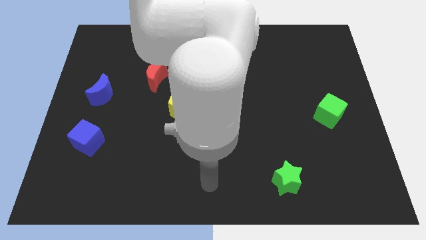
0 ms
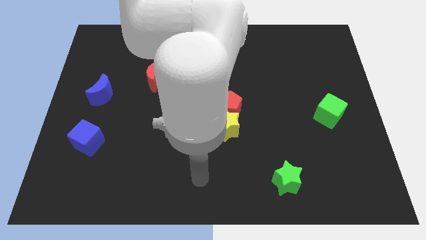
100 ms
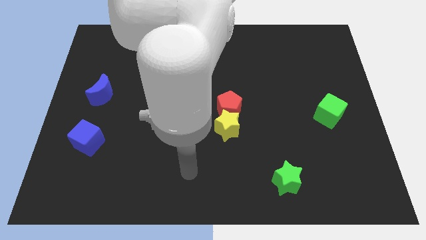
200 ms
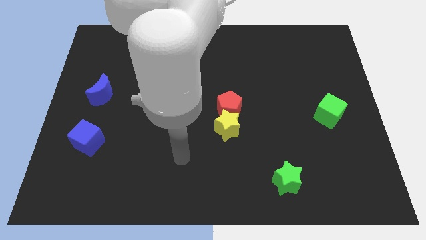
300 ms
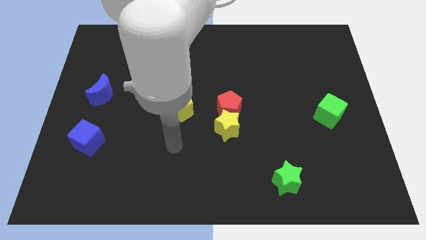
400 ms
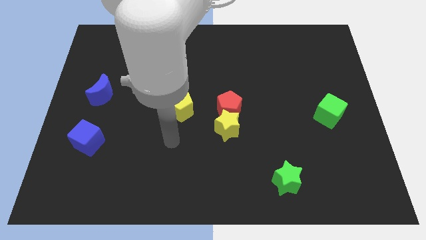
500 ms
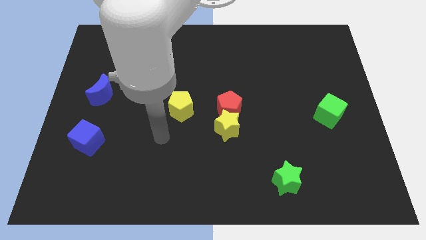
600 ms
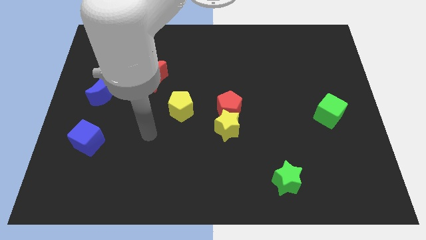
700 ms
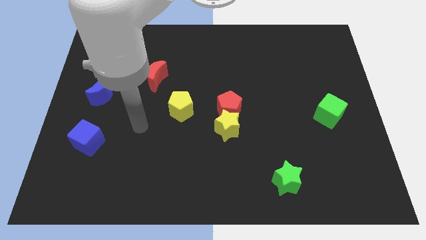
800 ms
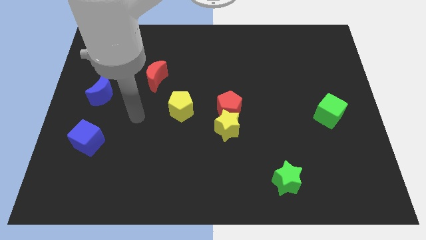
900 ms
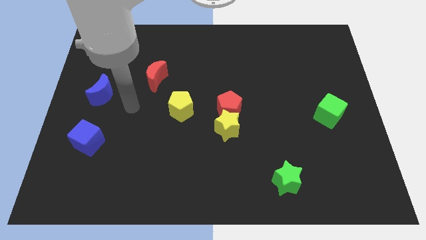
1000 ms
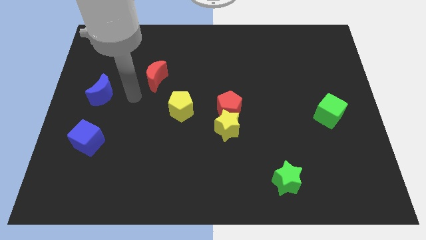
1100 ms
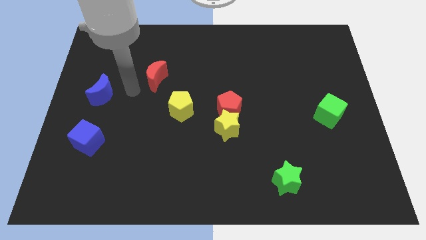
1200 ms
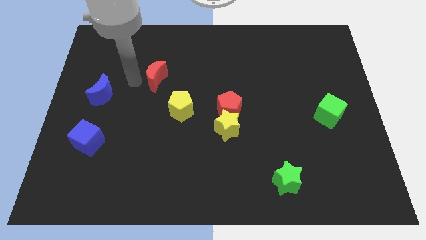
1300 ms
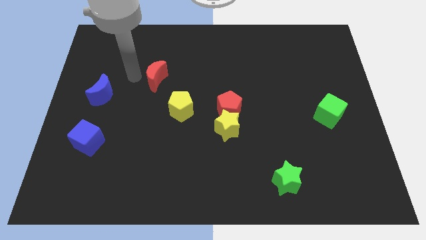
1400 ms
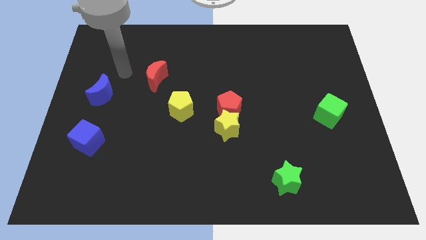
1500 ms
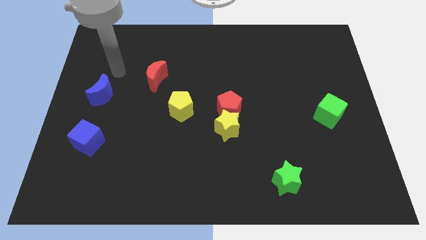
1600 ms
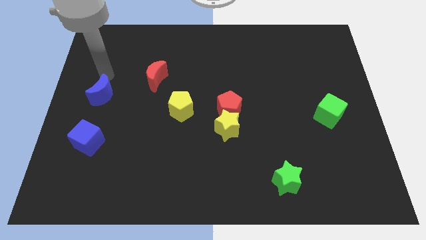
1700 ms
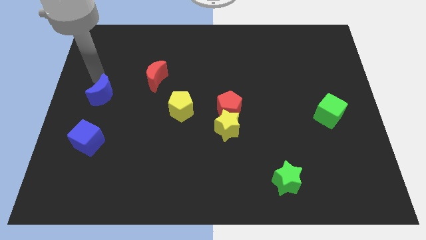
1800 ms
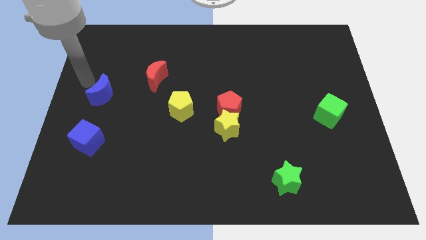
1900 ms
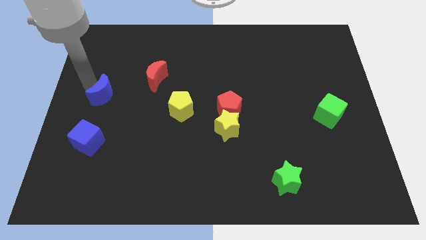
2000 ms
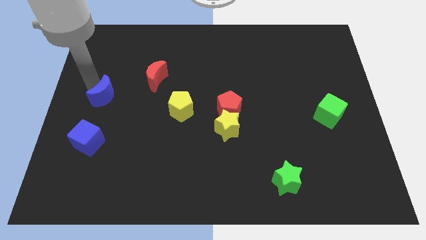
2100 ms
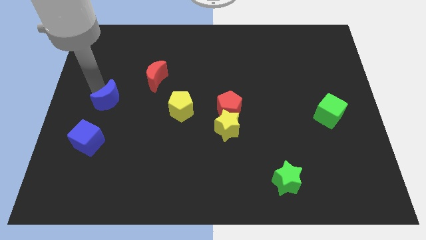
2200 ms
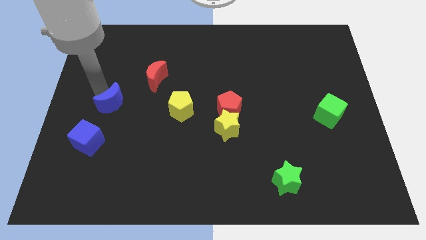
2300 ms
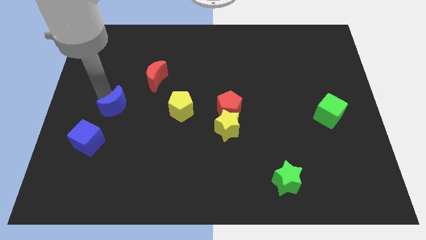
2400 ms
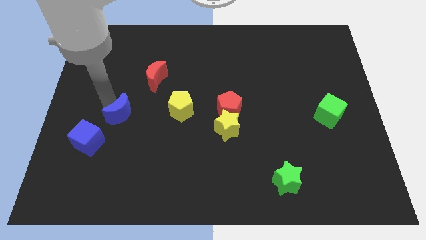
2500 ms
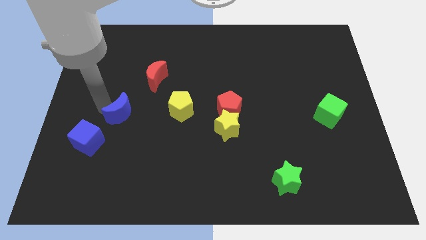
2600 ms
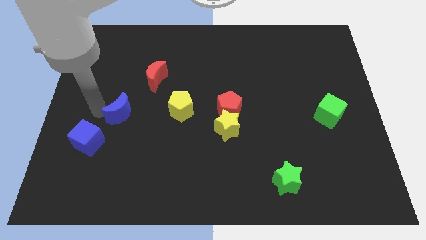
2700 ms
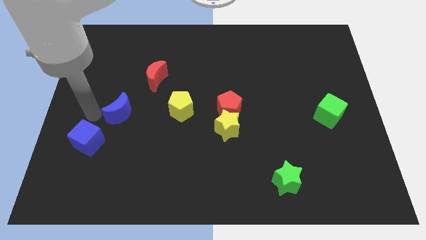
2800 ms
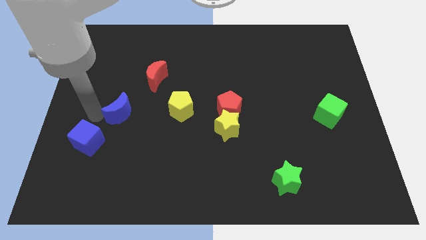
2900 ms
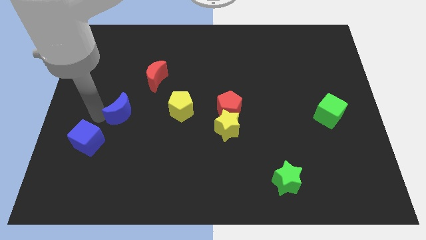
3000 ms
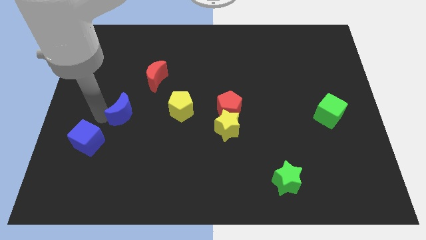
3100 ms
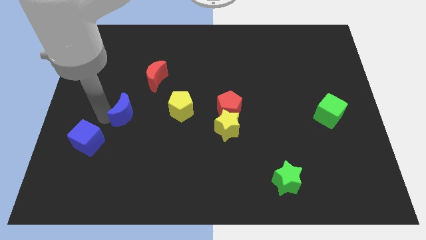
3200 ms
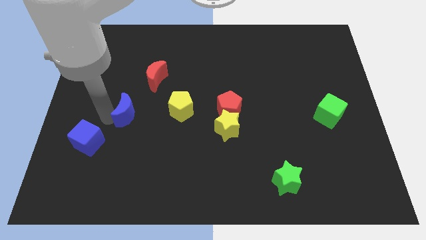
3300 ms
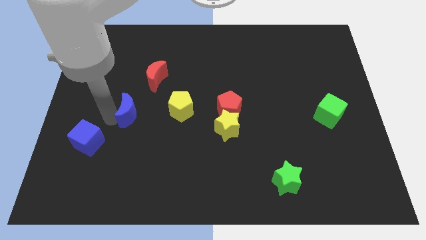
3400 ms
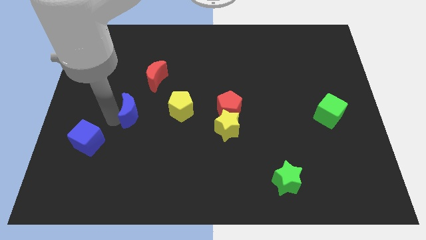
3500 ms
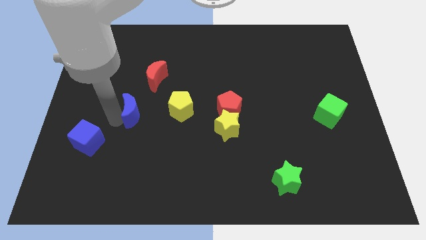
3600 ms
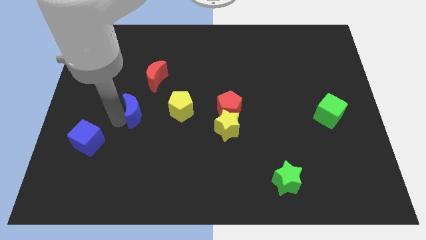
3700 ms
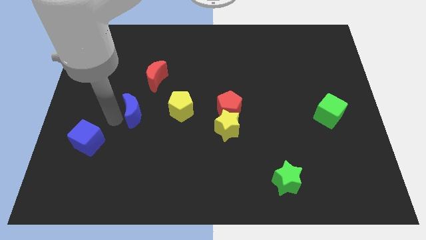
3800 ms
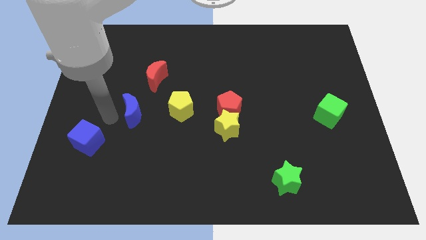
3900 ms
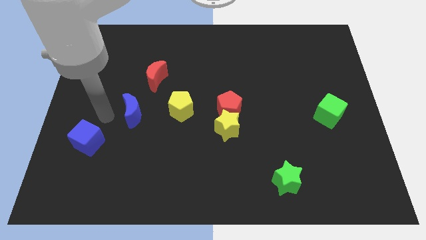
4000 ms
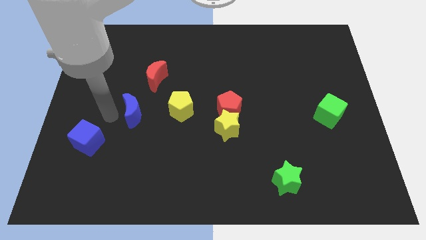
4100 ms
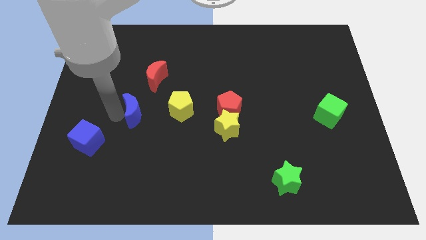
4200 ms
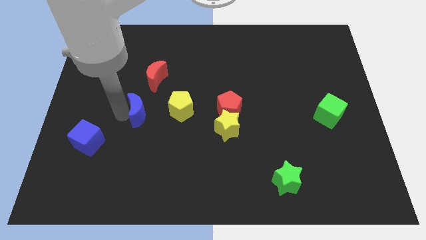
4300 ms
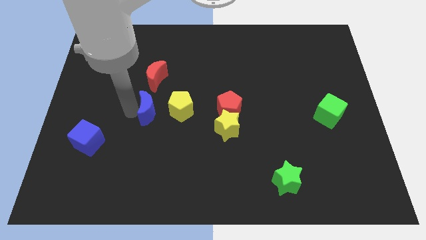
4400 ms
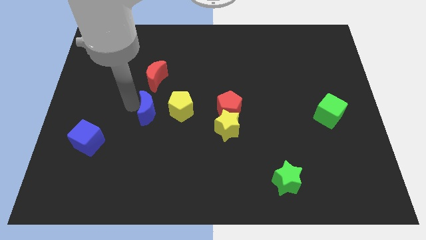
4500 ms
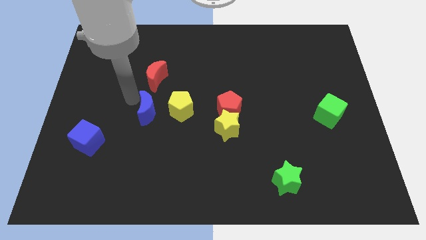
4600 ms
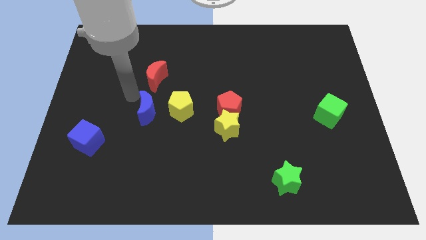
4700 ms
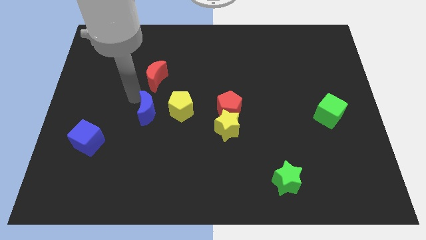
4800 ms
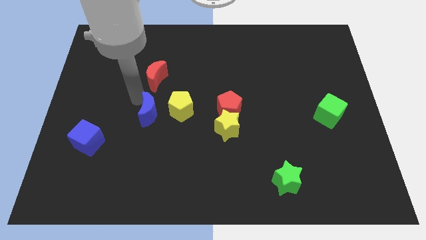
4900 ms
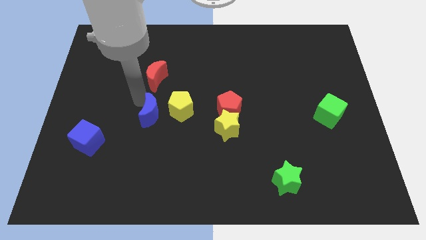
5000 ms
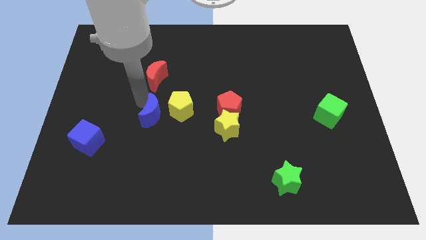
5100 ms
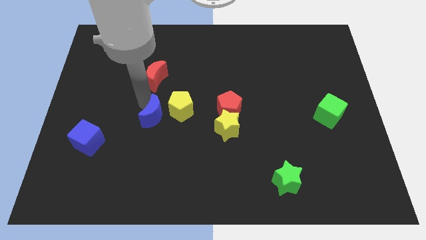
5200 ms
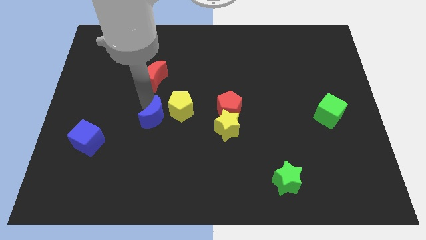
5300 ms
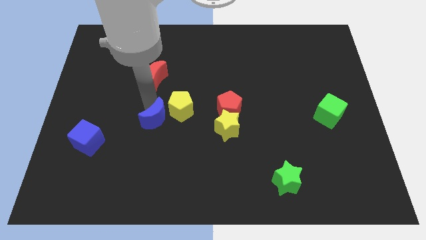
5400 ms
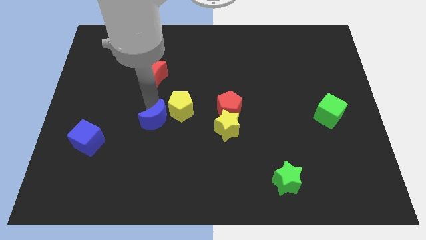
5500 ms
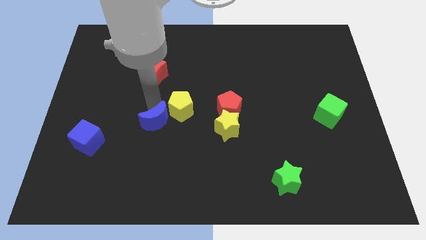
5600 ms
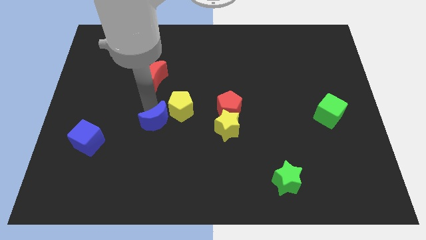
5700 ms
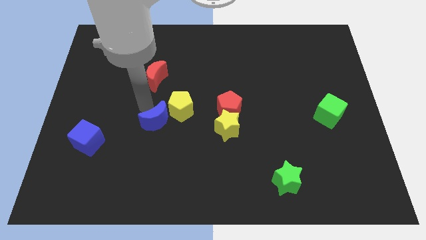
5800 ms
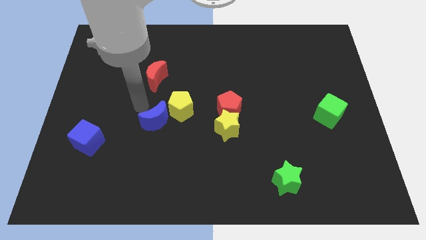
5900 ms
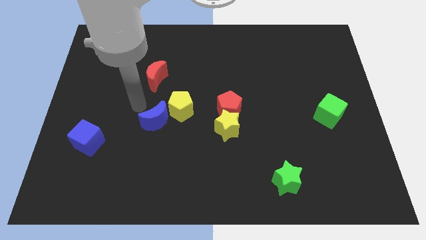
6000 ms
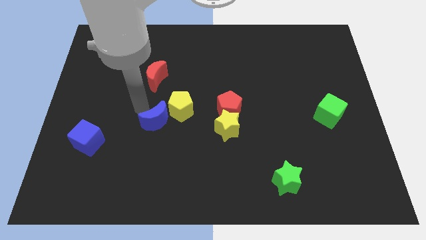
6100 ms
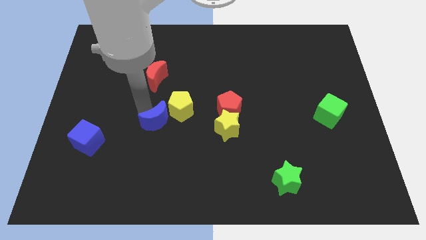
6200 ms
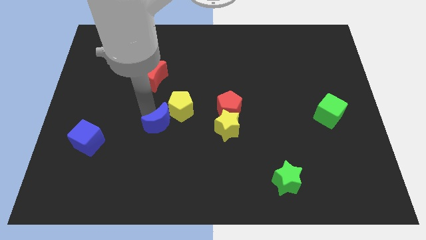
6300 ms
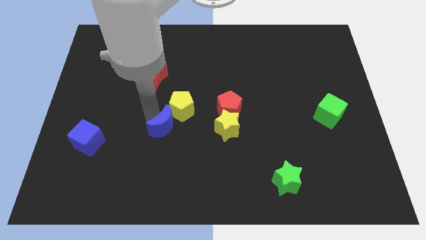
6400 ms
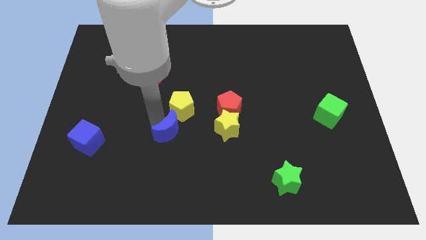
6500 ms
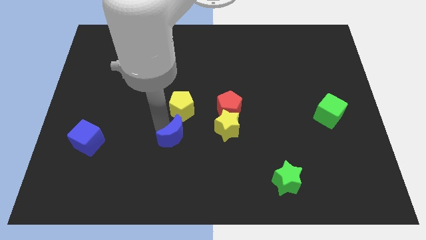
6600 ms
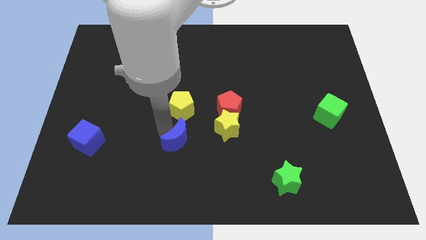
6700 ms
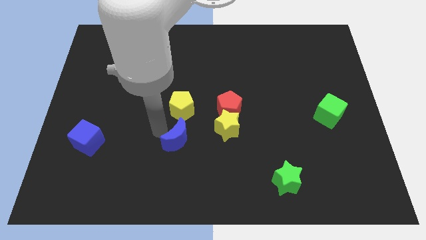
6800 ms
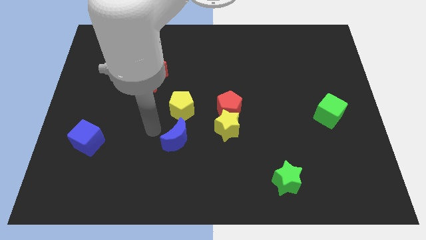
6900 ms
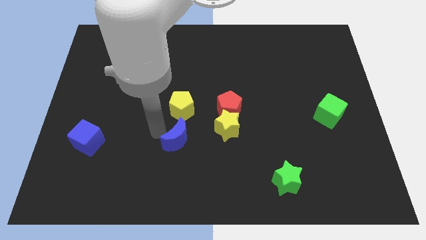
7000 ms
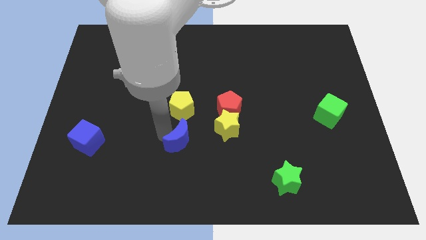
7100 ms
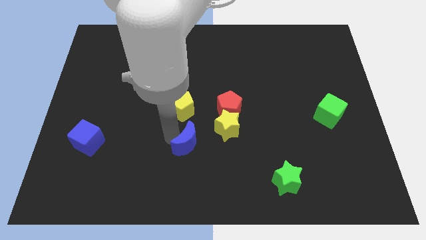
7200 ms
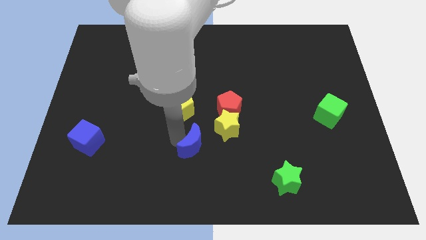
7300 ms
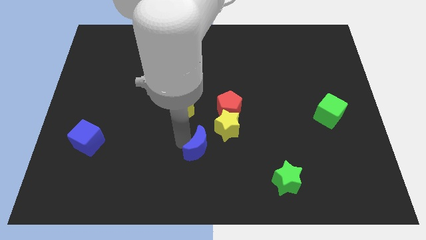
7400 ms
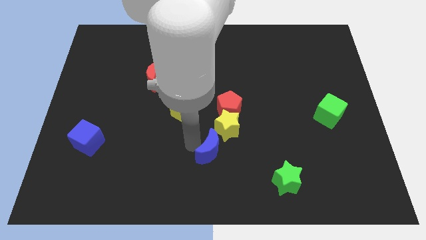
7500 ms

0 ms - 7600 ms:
put the blue moon below the yellow star
